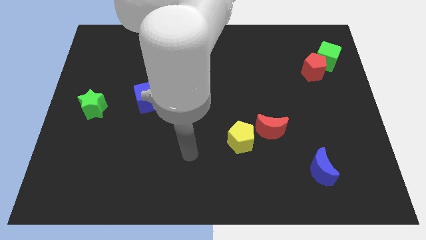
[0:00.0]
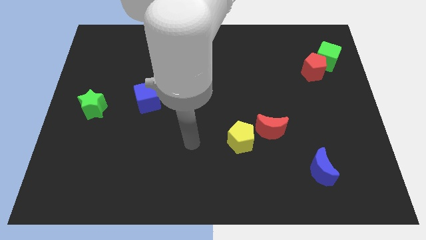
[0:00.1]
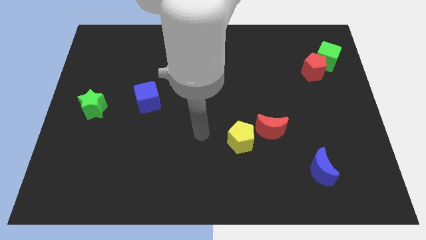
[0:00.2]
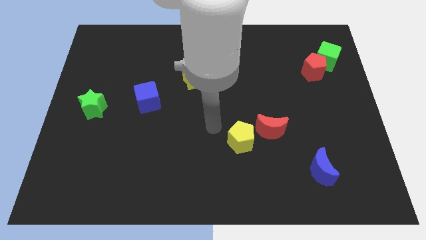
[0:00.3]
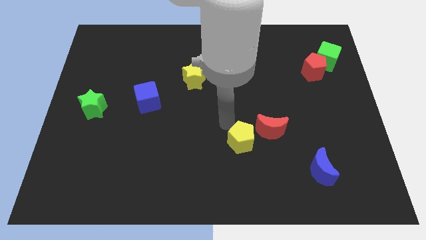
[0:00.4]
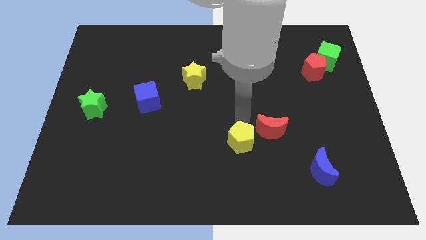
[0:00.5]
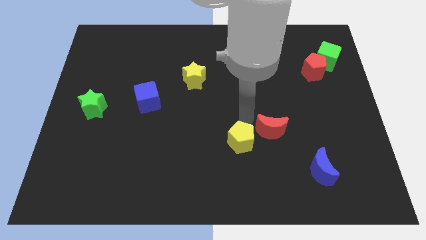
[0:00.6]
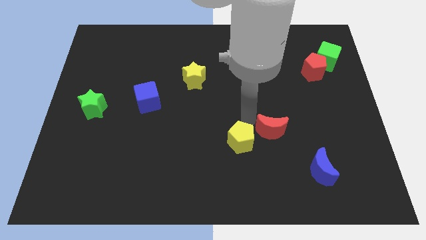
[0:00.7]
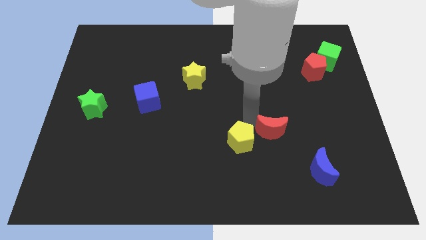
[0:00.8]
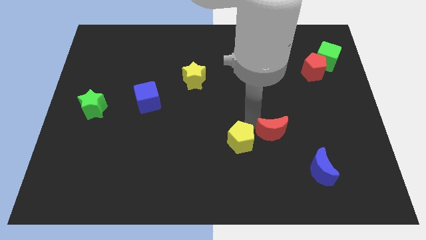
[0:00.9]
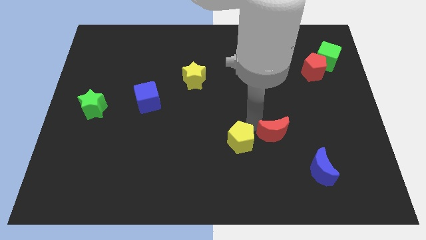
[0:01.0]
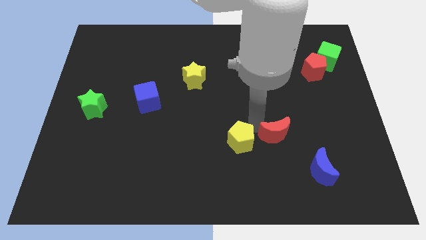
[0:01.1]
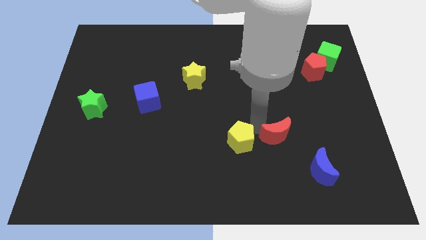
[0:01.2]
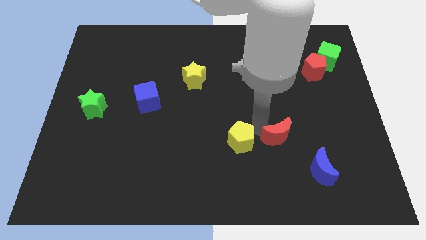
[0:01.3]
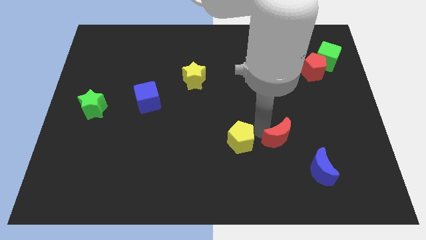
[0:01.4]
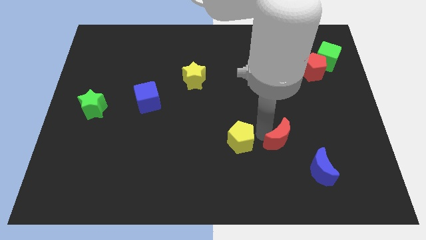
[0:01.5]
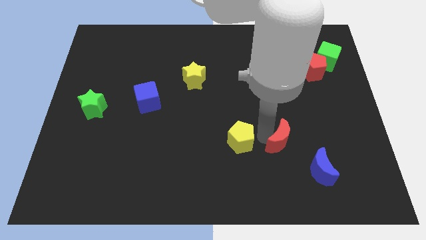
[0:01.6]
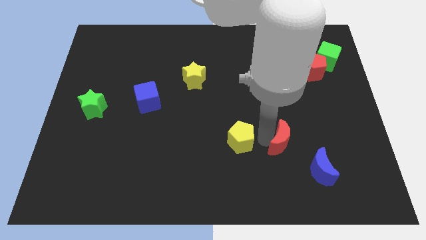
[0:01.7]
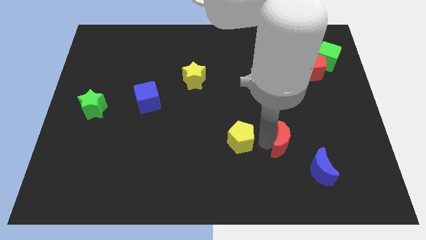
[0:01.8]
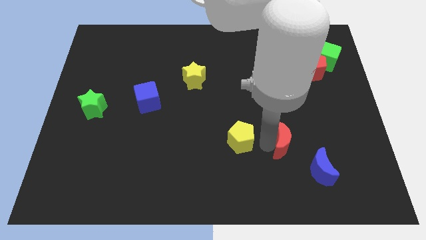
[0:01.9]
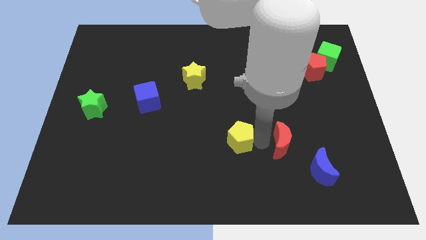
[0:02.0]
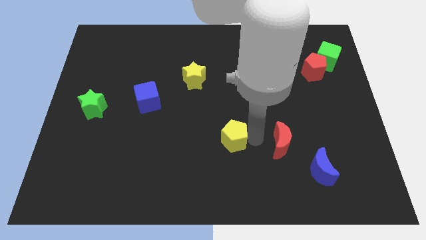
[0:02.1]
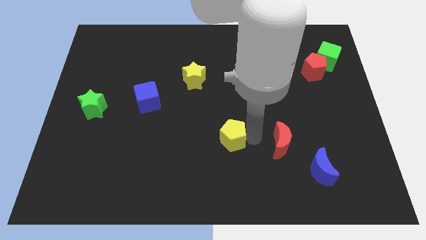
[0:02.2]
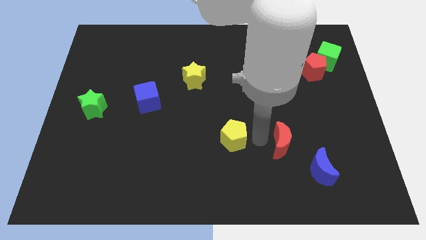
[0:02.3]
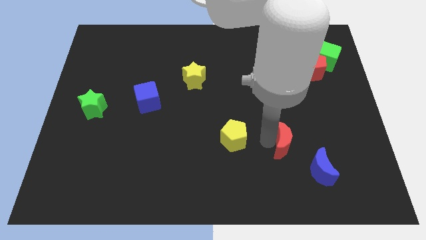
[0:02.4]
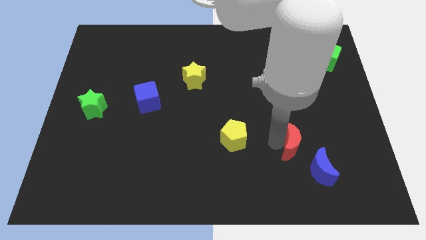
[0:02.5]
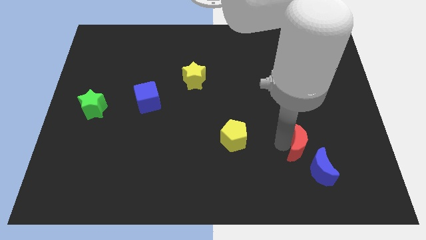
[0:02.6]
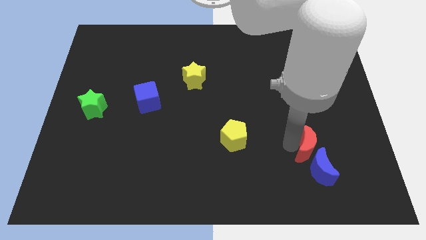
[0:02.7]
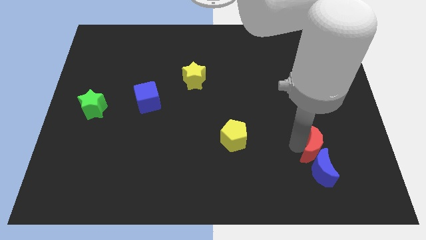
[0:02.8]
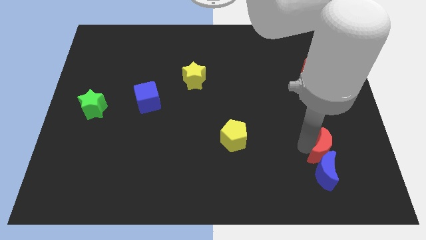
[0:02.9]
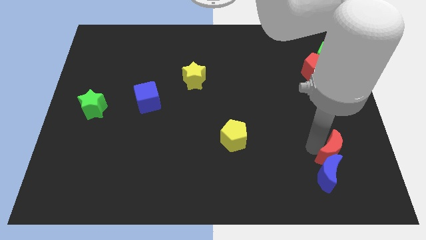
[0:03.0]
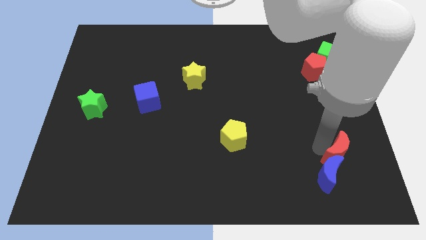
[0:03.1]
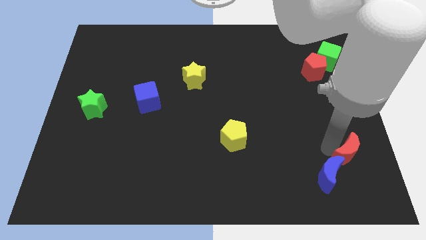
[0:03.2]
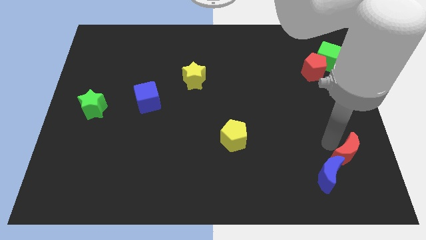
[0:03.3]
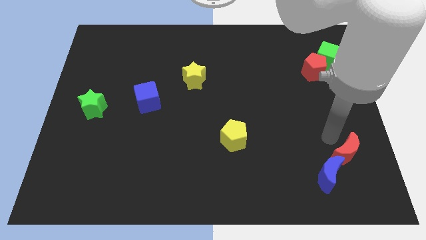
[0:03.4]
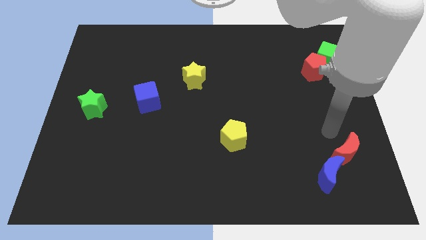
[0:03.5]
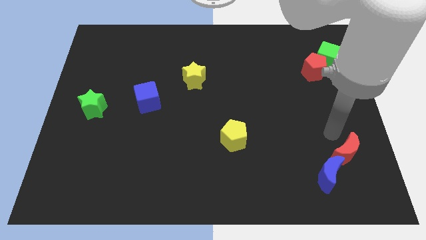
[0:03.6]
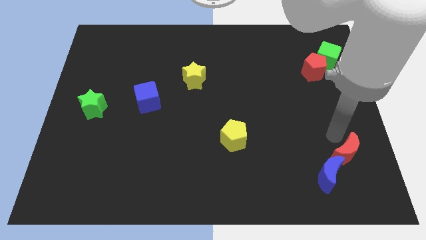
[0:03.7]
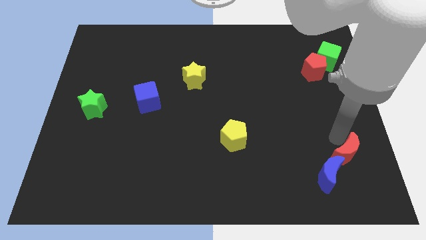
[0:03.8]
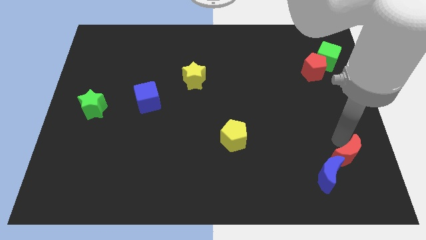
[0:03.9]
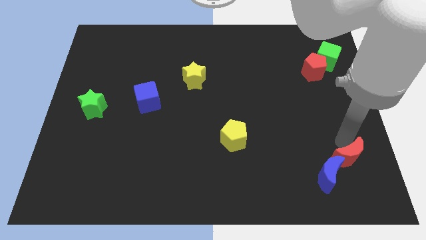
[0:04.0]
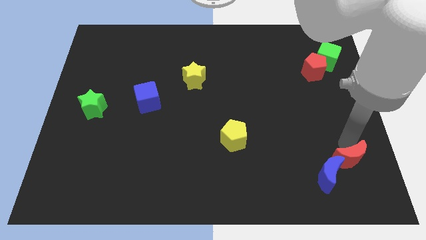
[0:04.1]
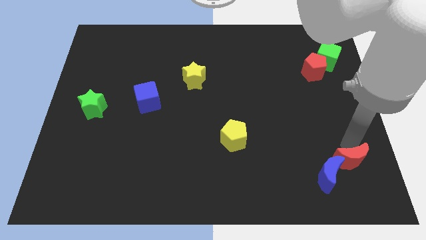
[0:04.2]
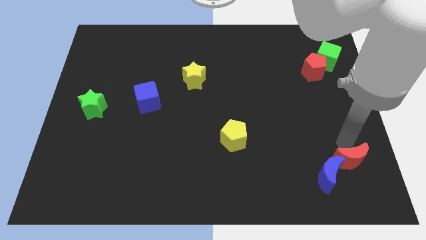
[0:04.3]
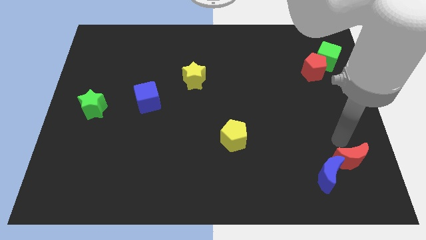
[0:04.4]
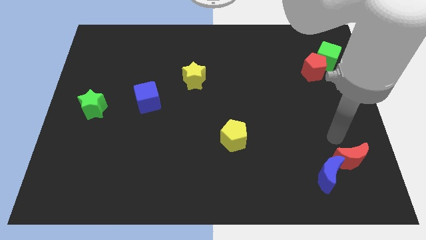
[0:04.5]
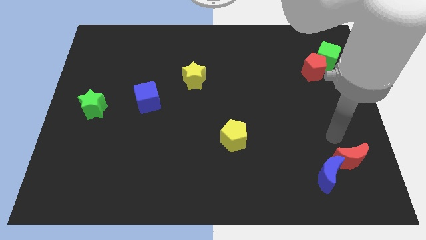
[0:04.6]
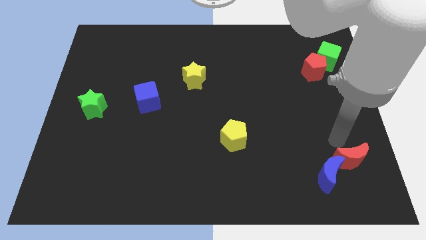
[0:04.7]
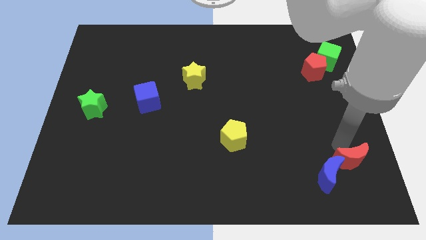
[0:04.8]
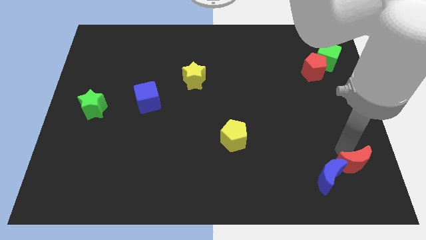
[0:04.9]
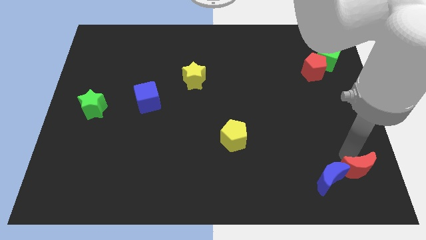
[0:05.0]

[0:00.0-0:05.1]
put the red moon to the bottom right

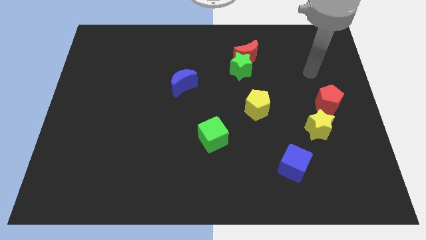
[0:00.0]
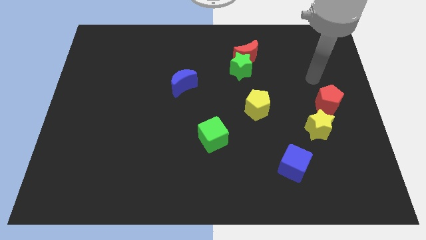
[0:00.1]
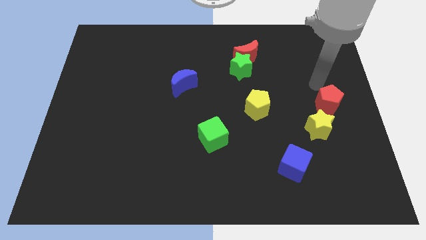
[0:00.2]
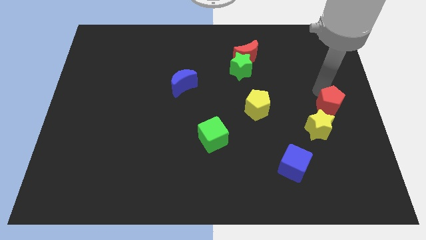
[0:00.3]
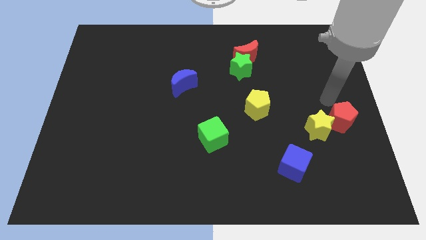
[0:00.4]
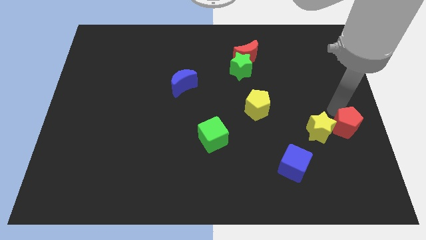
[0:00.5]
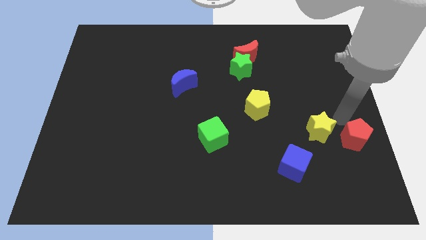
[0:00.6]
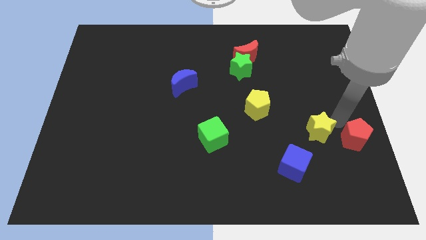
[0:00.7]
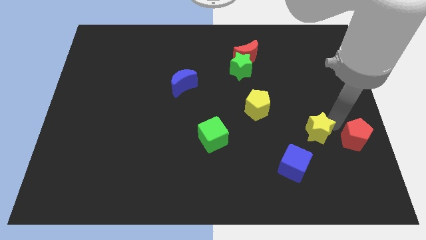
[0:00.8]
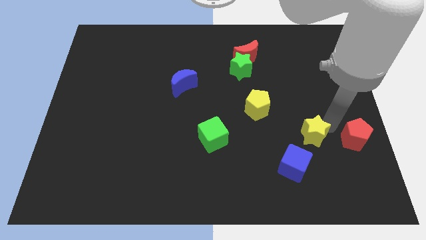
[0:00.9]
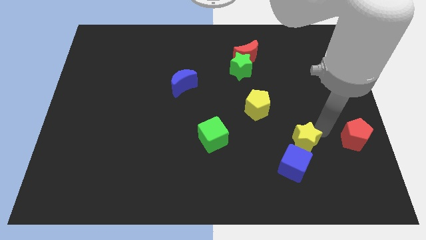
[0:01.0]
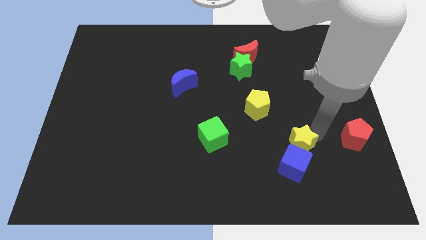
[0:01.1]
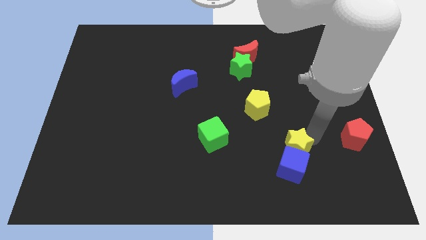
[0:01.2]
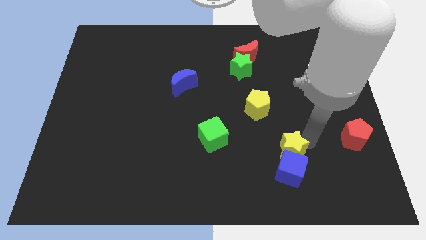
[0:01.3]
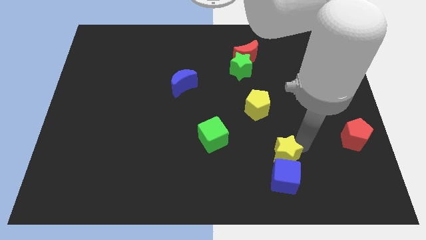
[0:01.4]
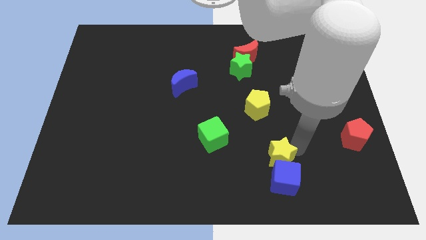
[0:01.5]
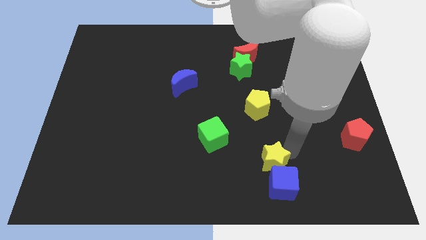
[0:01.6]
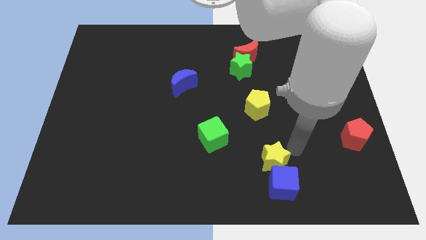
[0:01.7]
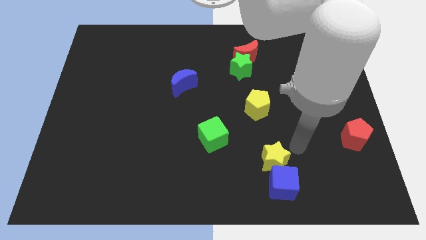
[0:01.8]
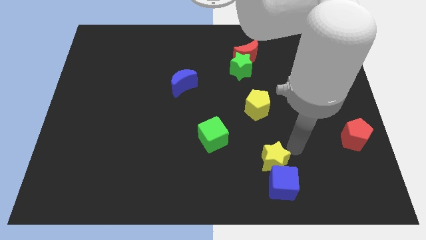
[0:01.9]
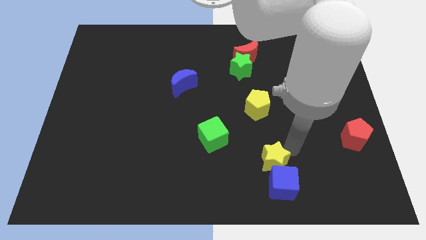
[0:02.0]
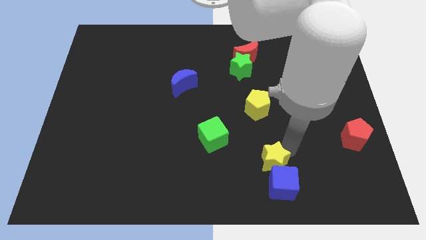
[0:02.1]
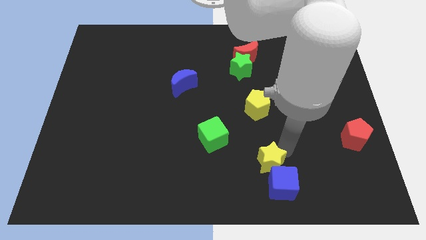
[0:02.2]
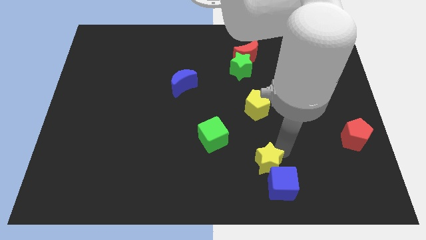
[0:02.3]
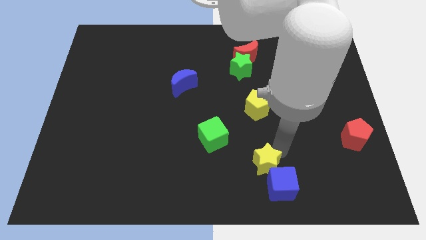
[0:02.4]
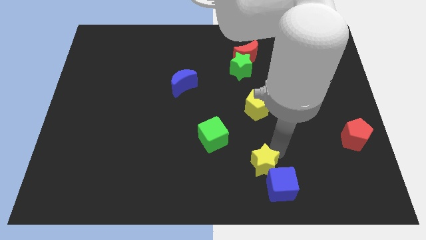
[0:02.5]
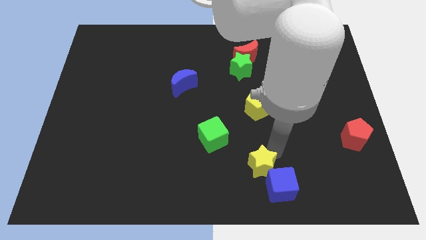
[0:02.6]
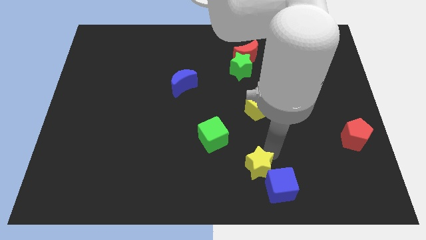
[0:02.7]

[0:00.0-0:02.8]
slide the yellow star to the bottom
